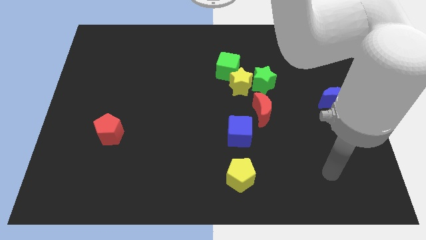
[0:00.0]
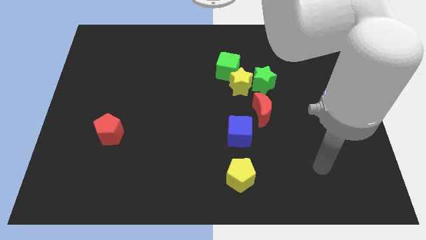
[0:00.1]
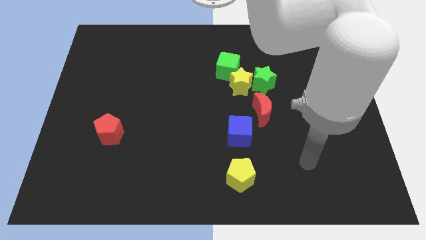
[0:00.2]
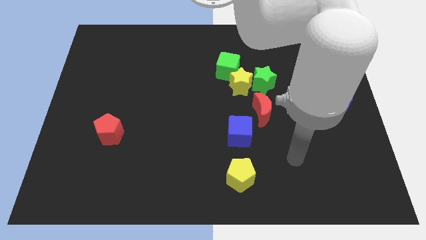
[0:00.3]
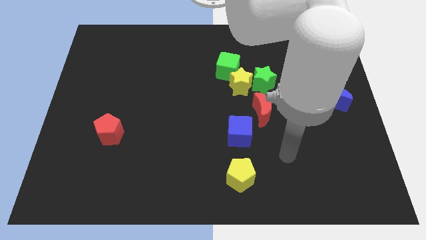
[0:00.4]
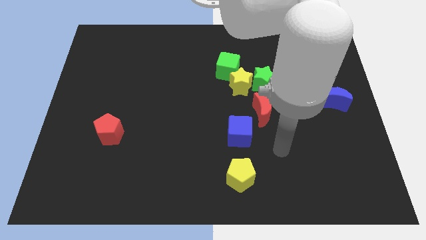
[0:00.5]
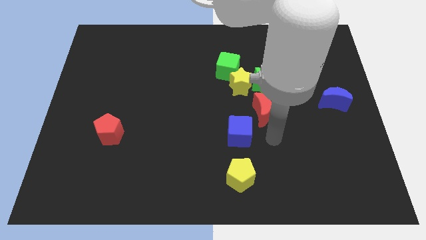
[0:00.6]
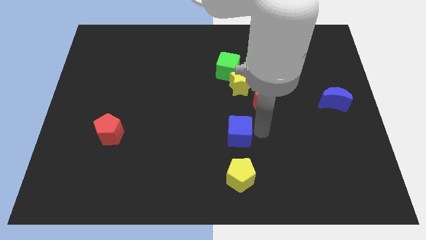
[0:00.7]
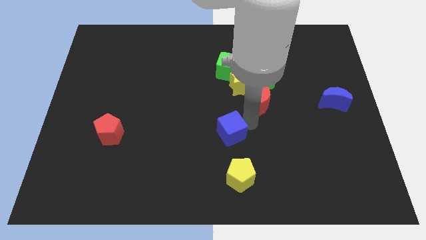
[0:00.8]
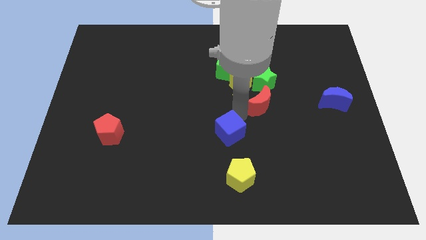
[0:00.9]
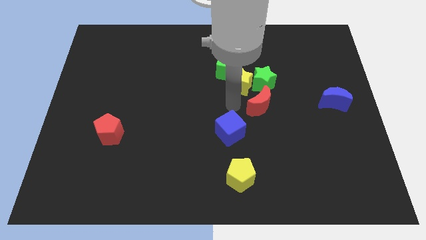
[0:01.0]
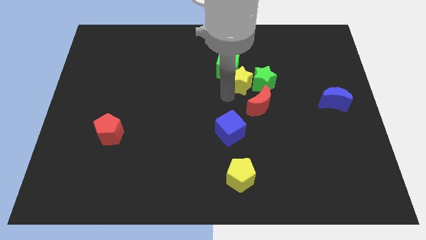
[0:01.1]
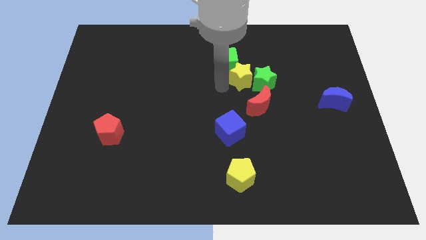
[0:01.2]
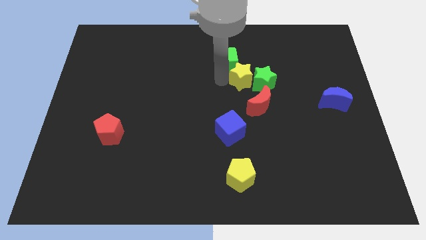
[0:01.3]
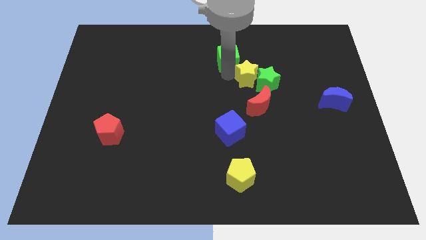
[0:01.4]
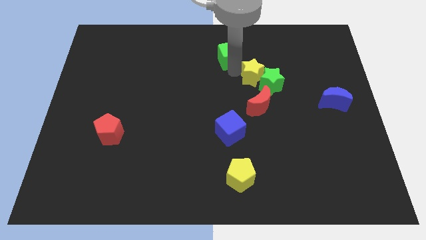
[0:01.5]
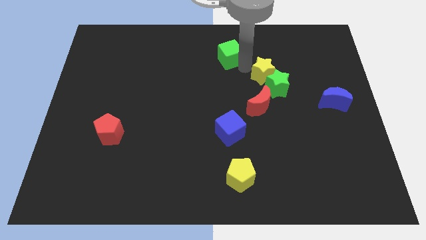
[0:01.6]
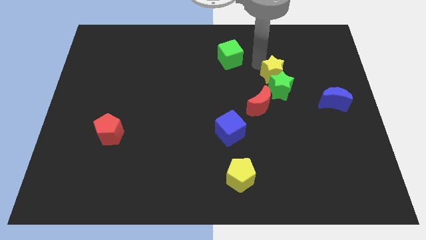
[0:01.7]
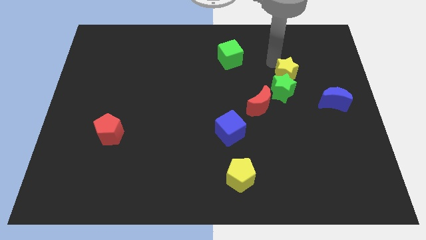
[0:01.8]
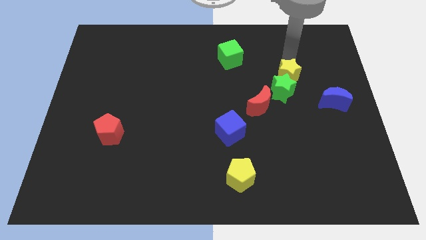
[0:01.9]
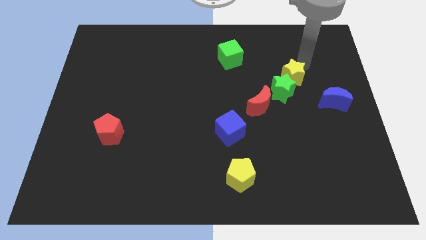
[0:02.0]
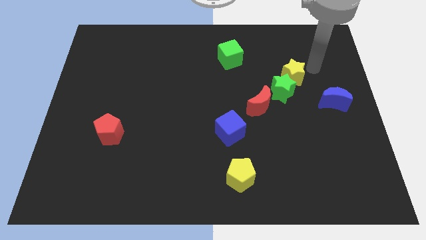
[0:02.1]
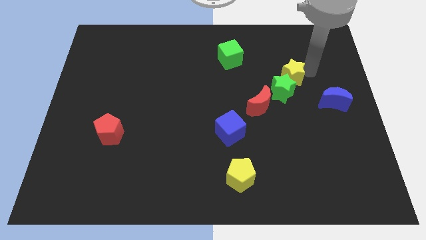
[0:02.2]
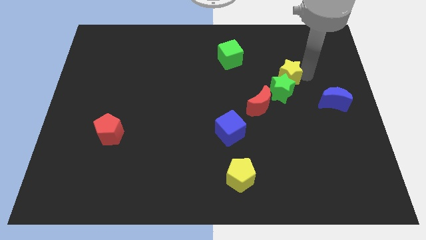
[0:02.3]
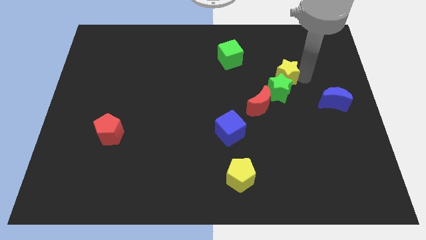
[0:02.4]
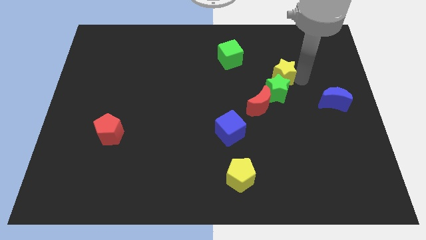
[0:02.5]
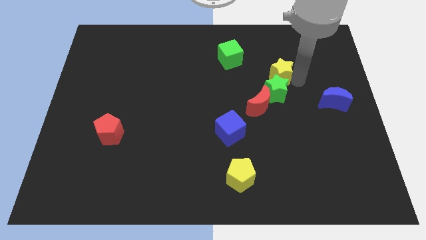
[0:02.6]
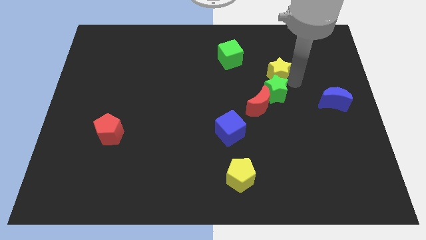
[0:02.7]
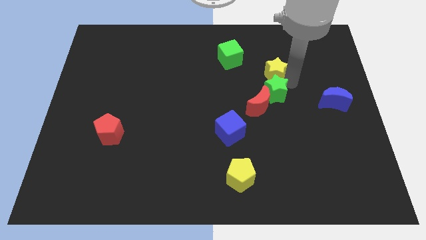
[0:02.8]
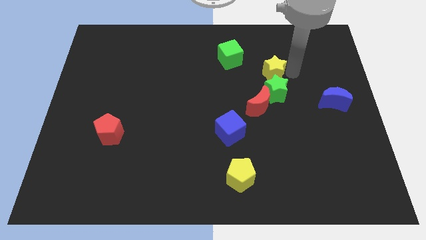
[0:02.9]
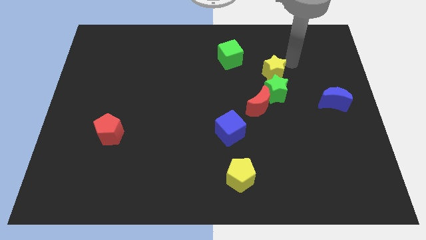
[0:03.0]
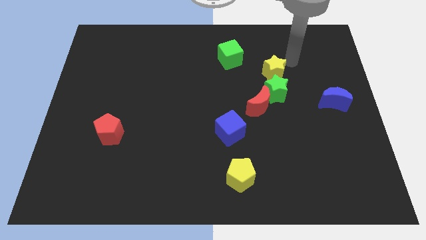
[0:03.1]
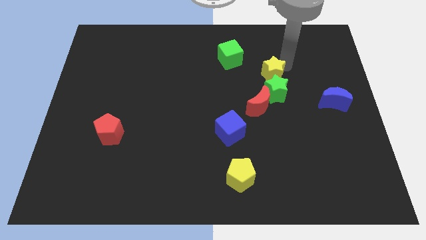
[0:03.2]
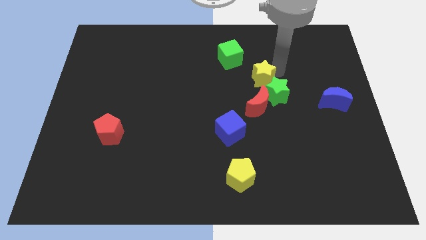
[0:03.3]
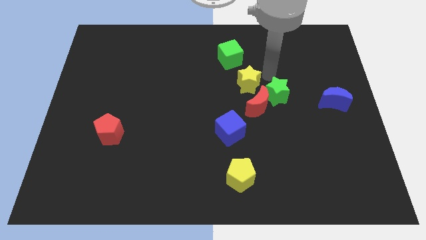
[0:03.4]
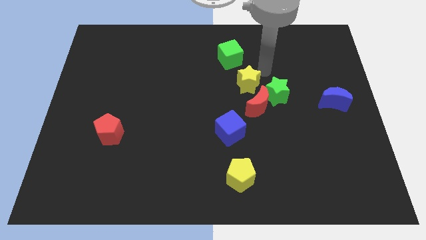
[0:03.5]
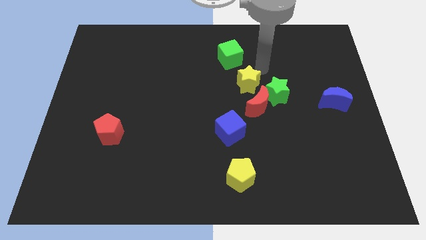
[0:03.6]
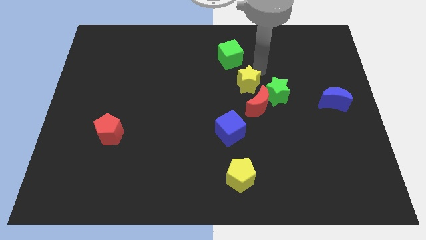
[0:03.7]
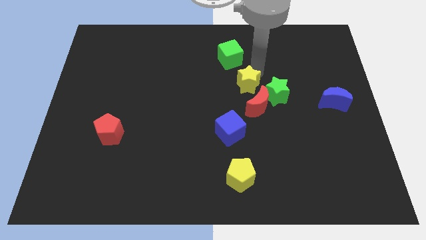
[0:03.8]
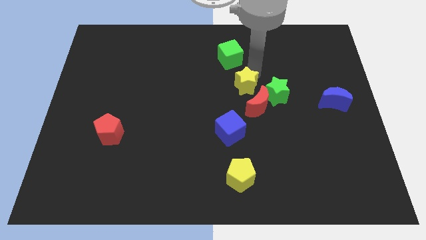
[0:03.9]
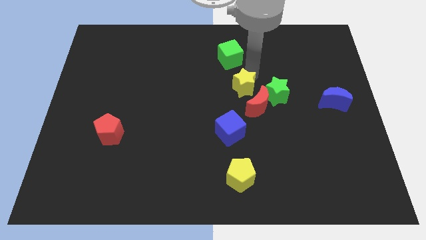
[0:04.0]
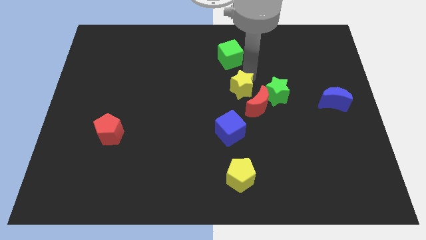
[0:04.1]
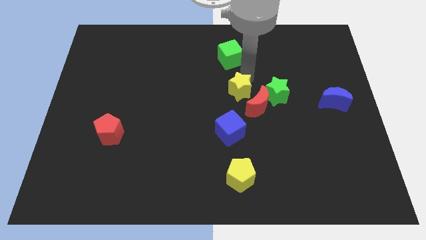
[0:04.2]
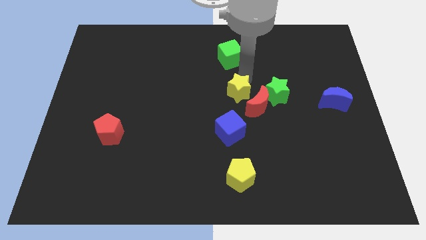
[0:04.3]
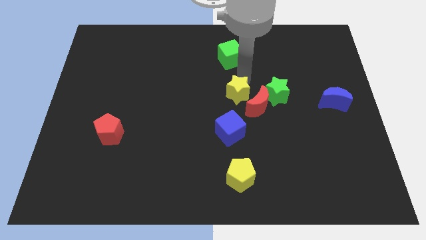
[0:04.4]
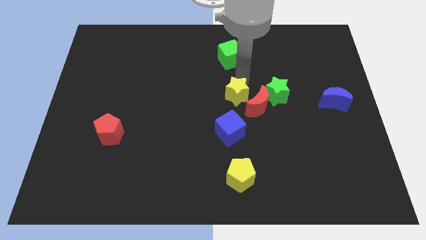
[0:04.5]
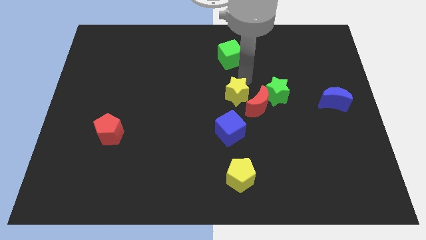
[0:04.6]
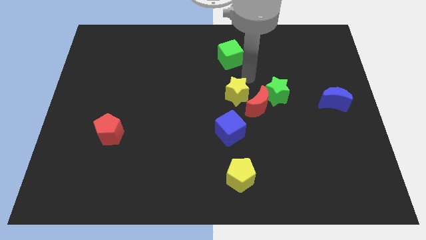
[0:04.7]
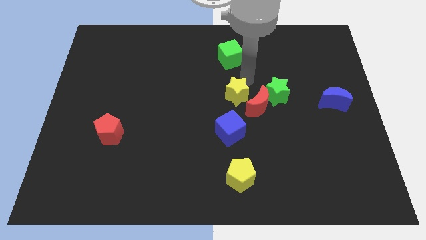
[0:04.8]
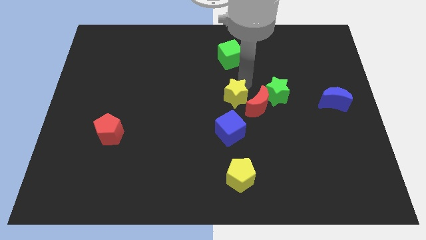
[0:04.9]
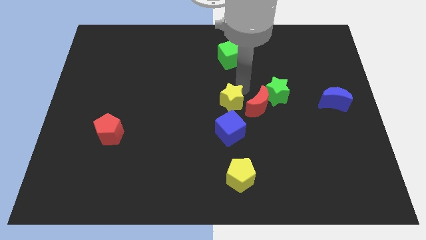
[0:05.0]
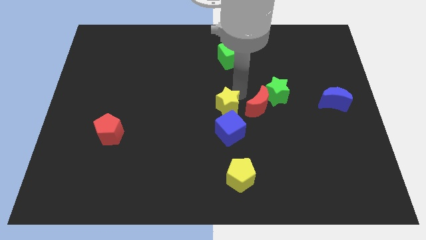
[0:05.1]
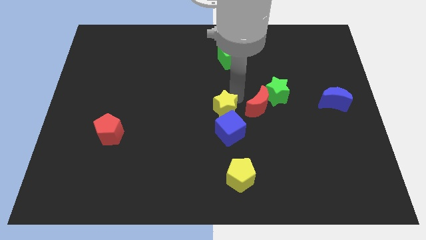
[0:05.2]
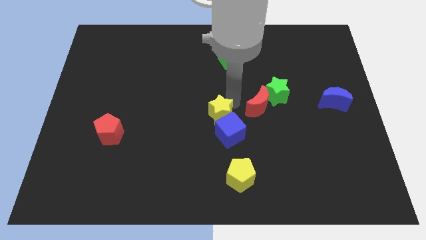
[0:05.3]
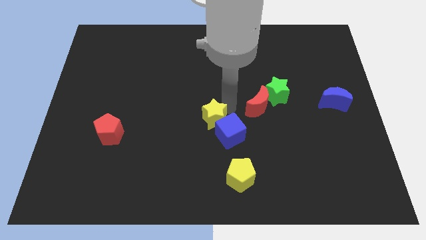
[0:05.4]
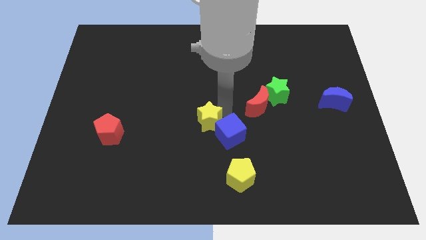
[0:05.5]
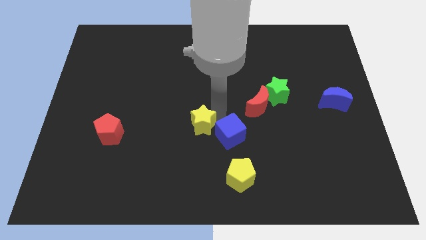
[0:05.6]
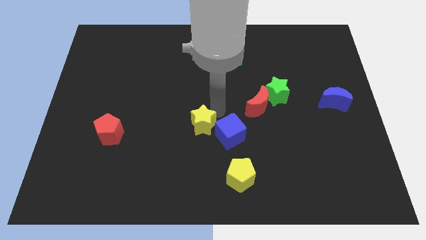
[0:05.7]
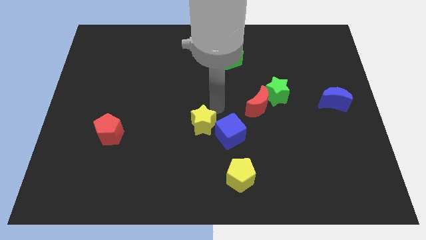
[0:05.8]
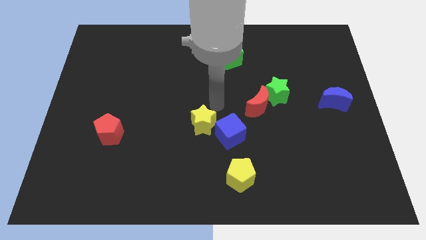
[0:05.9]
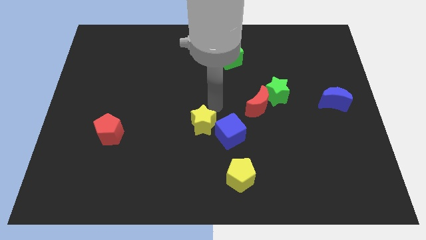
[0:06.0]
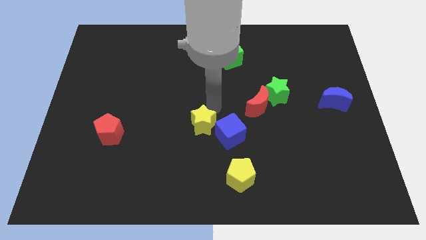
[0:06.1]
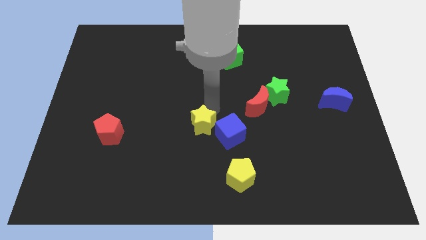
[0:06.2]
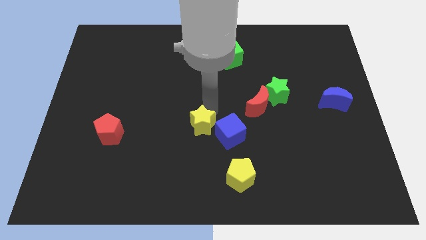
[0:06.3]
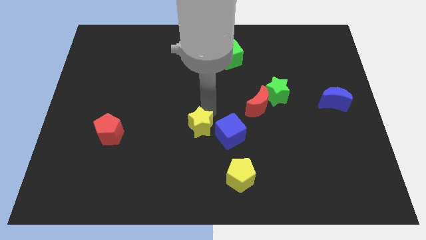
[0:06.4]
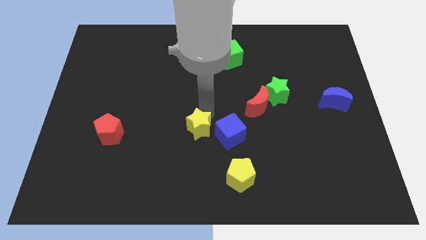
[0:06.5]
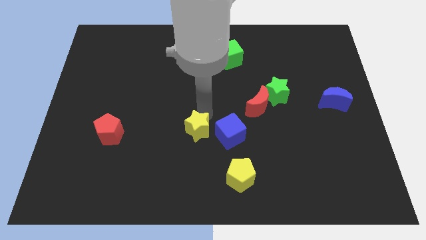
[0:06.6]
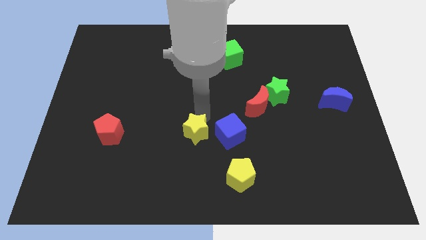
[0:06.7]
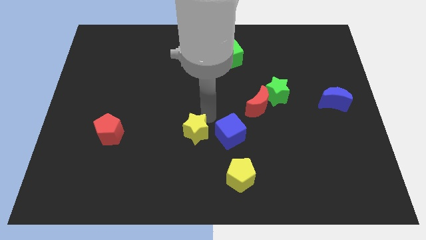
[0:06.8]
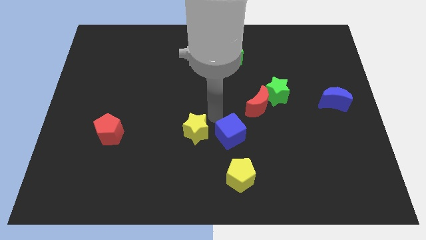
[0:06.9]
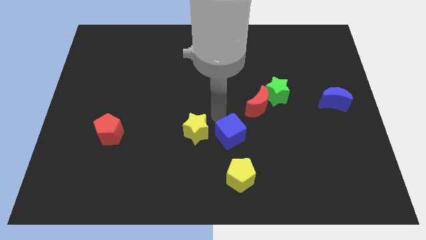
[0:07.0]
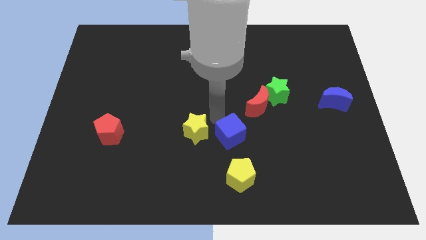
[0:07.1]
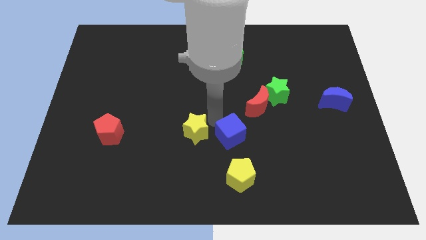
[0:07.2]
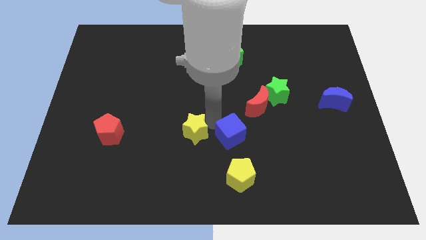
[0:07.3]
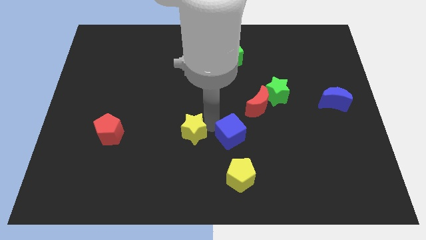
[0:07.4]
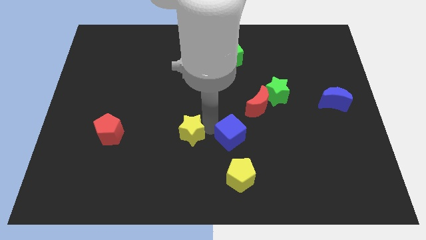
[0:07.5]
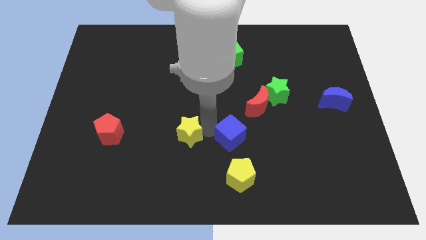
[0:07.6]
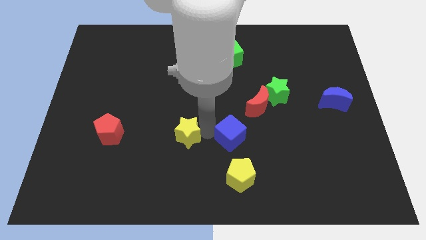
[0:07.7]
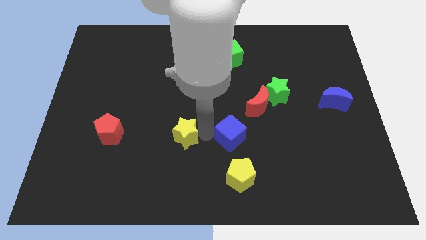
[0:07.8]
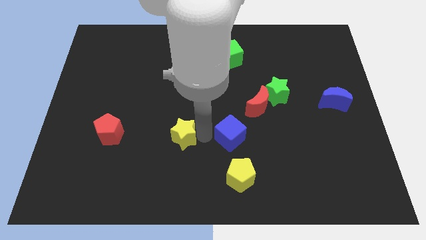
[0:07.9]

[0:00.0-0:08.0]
move the yellow star downwards and then to the left
